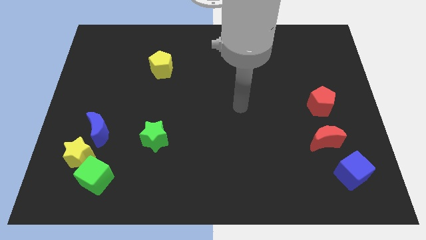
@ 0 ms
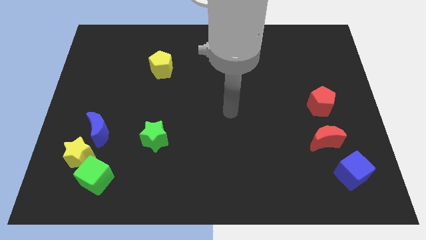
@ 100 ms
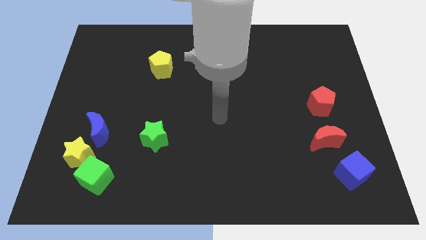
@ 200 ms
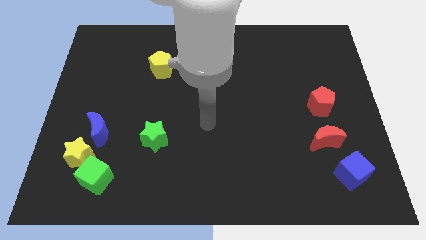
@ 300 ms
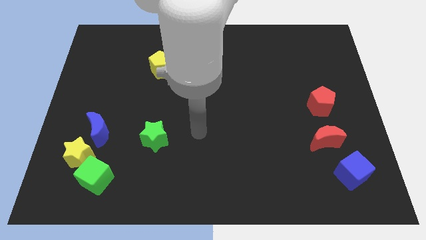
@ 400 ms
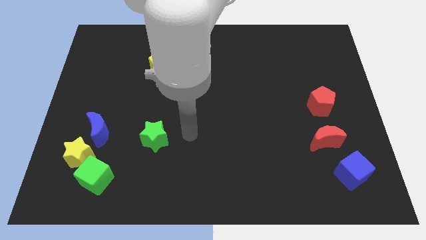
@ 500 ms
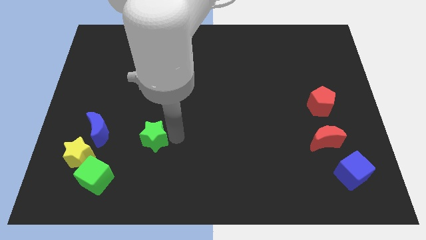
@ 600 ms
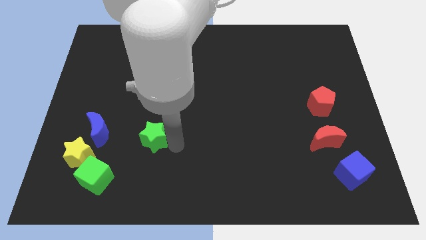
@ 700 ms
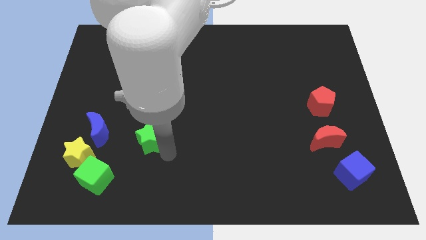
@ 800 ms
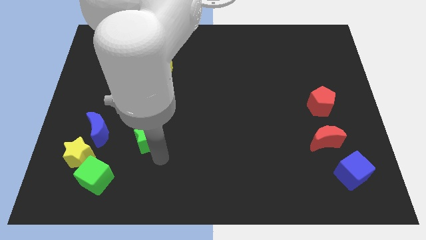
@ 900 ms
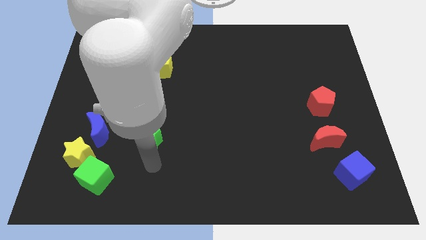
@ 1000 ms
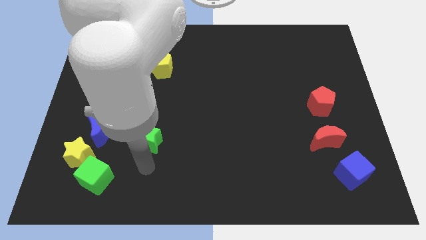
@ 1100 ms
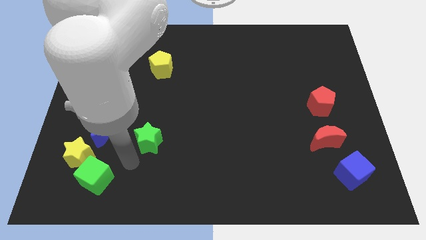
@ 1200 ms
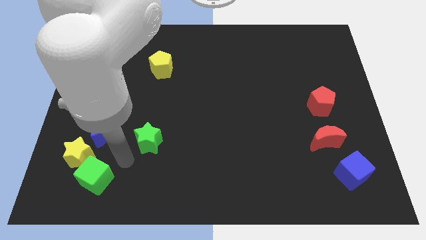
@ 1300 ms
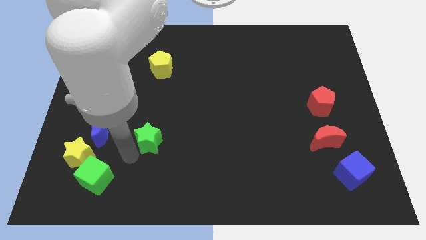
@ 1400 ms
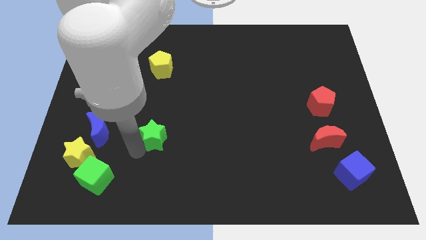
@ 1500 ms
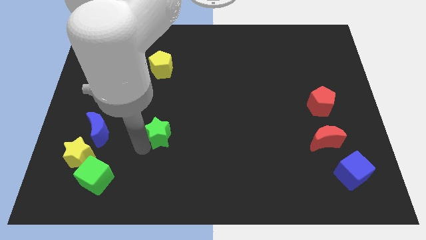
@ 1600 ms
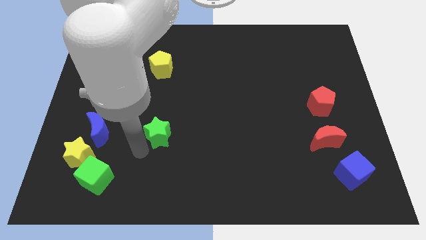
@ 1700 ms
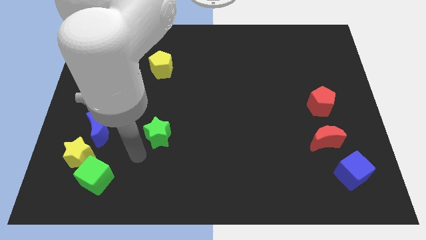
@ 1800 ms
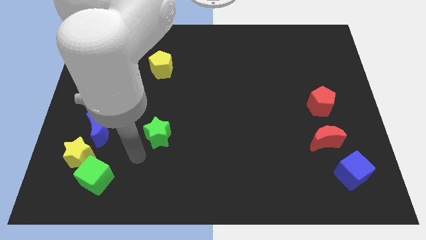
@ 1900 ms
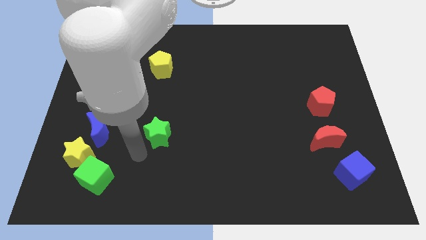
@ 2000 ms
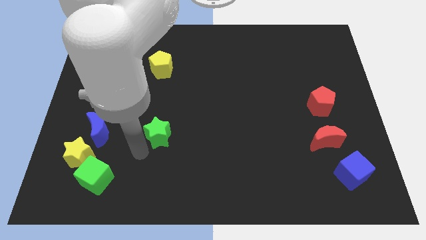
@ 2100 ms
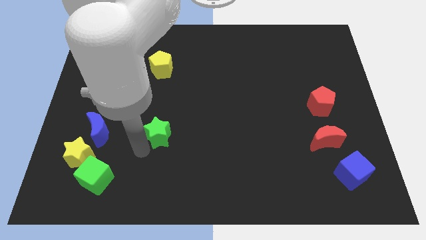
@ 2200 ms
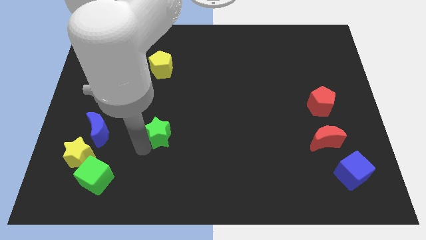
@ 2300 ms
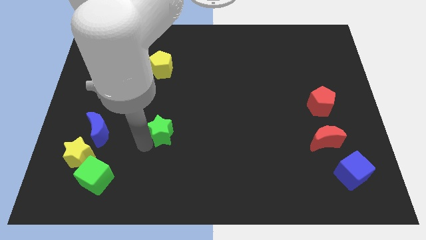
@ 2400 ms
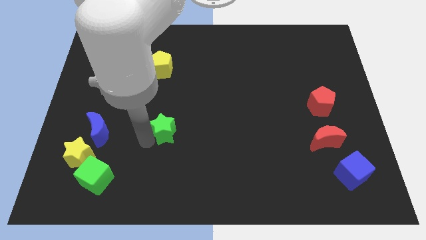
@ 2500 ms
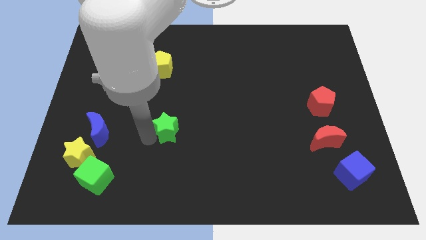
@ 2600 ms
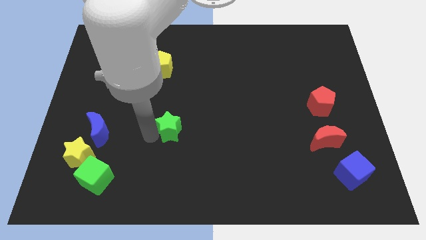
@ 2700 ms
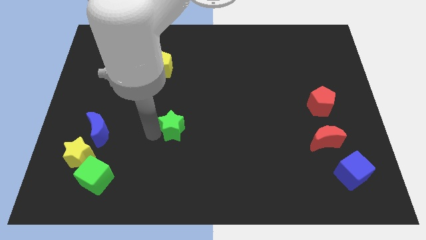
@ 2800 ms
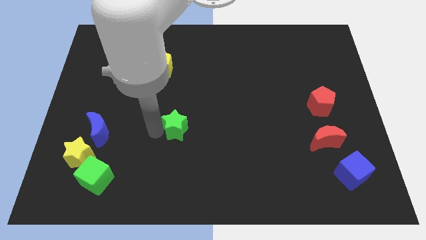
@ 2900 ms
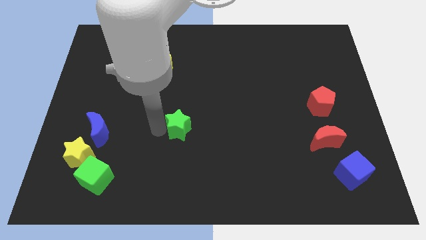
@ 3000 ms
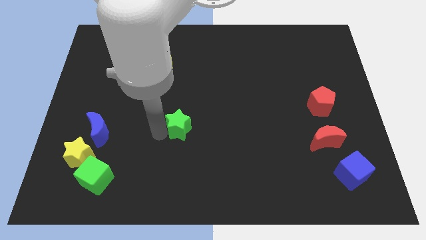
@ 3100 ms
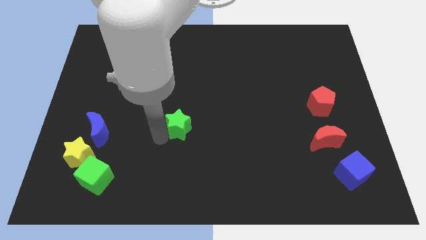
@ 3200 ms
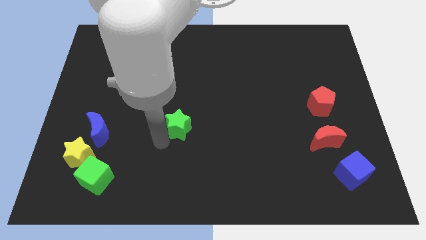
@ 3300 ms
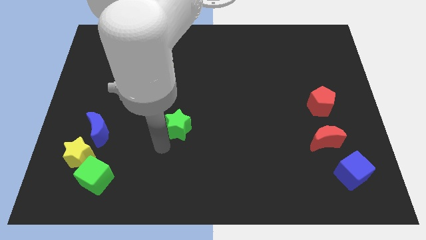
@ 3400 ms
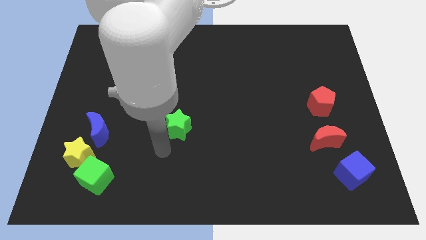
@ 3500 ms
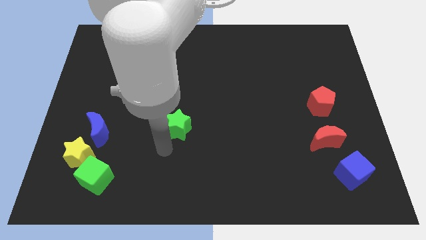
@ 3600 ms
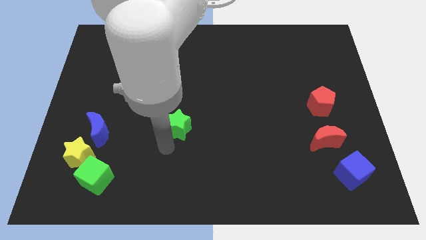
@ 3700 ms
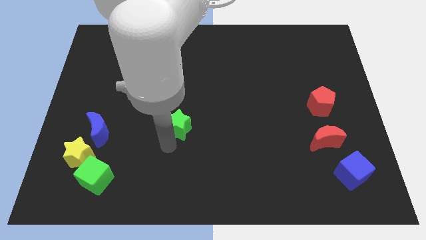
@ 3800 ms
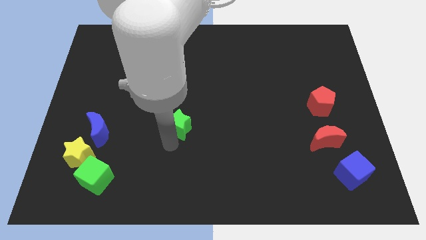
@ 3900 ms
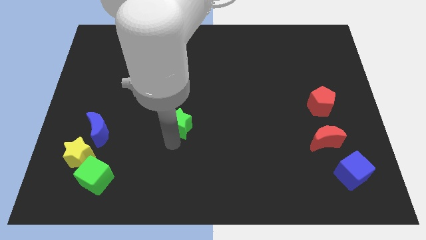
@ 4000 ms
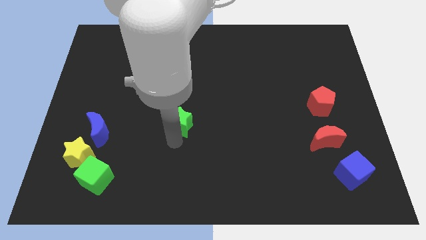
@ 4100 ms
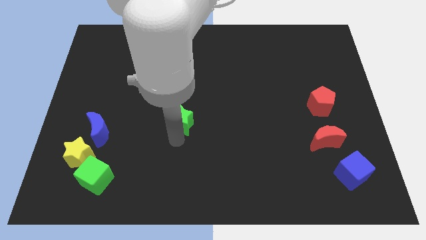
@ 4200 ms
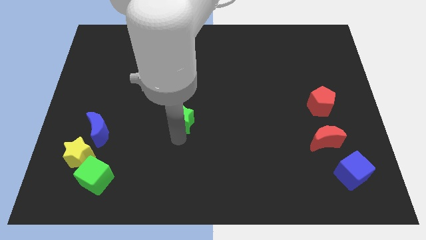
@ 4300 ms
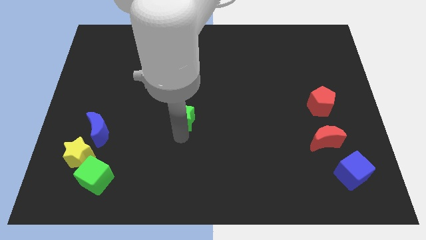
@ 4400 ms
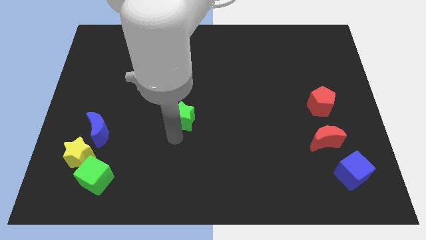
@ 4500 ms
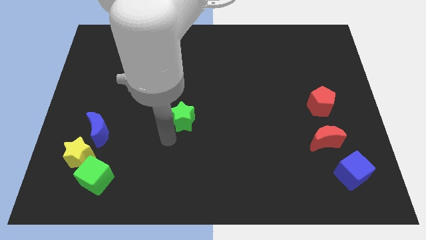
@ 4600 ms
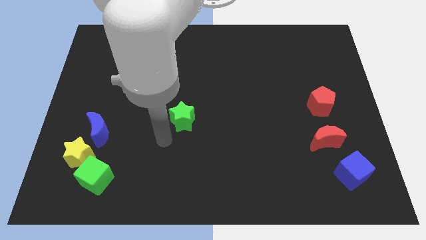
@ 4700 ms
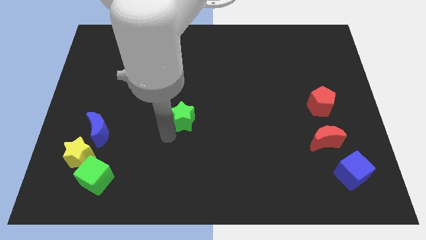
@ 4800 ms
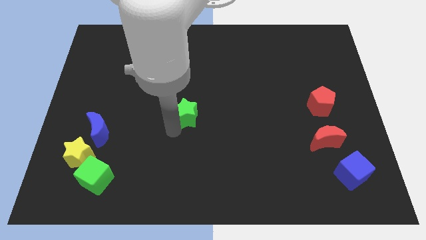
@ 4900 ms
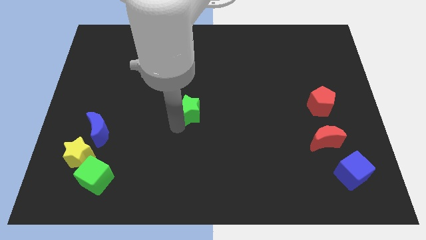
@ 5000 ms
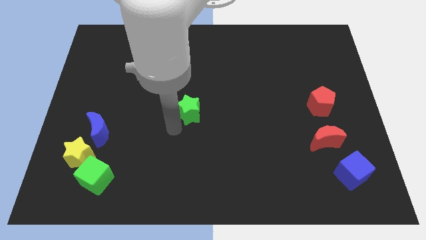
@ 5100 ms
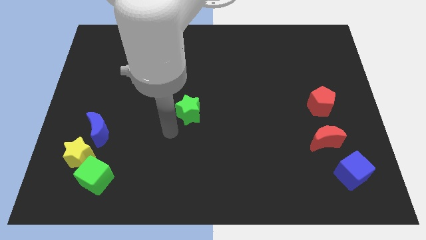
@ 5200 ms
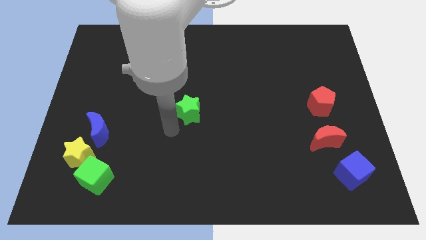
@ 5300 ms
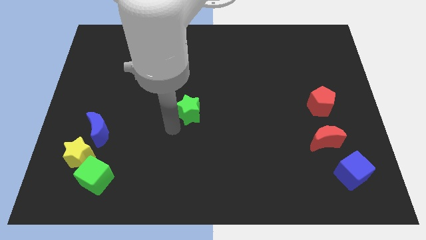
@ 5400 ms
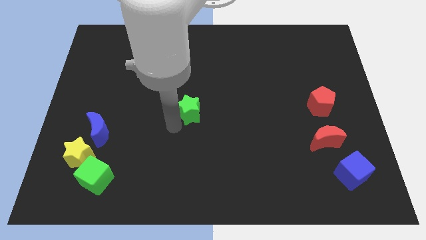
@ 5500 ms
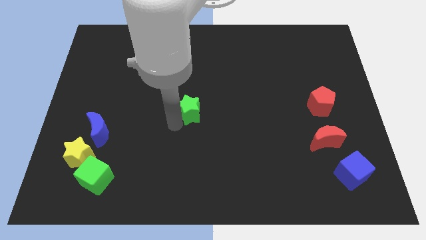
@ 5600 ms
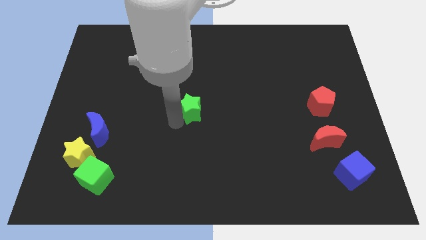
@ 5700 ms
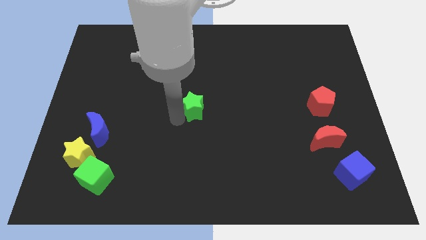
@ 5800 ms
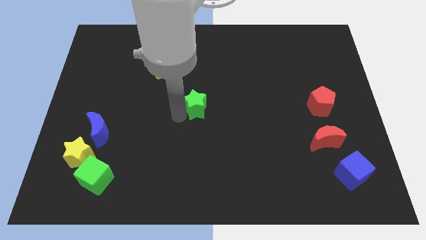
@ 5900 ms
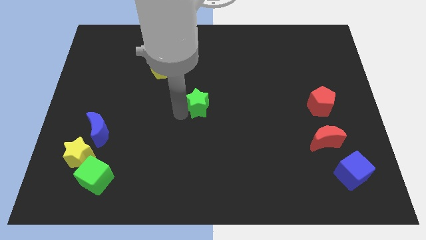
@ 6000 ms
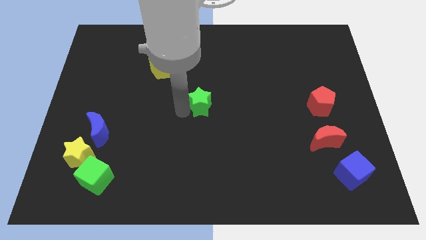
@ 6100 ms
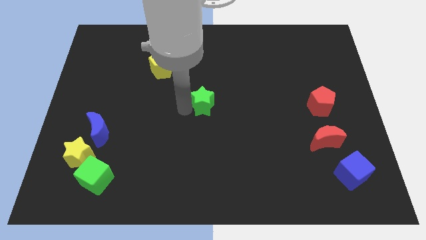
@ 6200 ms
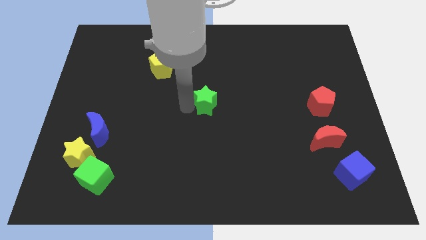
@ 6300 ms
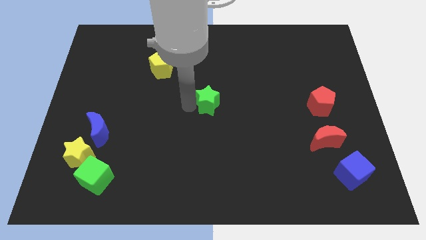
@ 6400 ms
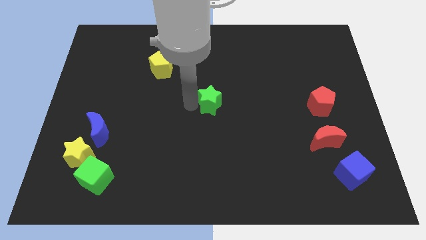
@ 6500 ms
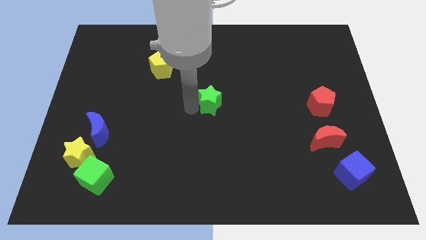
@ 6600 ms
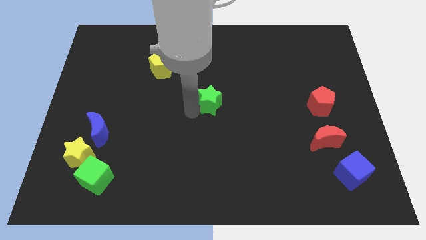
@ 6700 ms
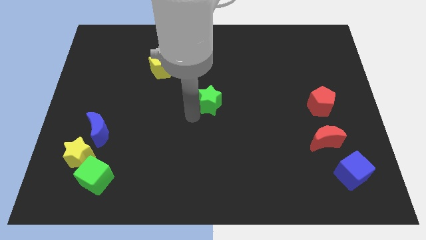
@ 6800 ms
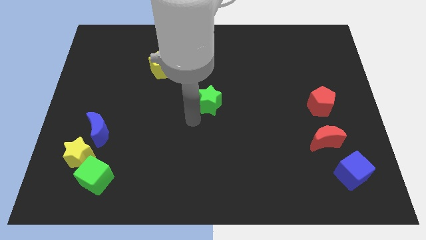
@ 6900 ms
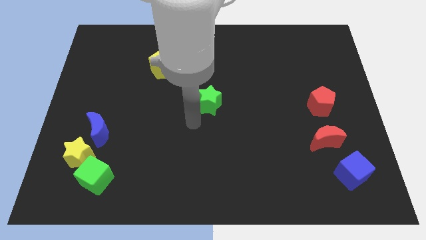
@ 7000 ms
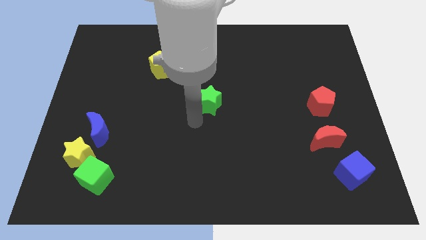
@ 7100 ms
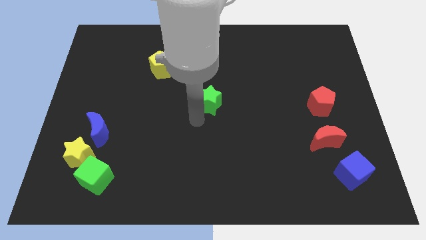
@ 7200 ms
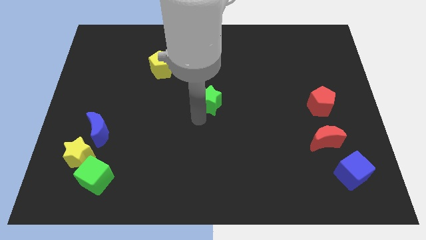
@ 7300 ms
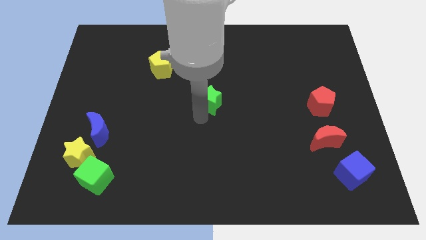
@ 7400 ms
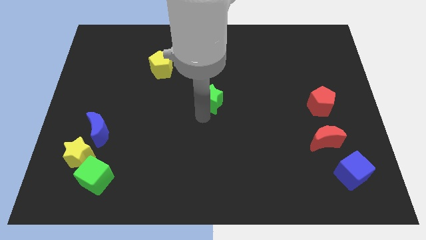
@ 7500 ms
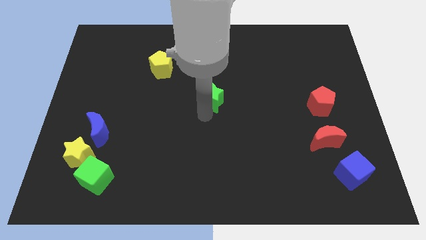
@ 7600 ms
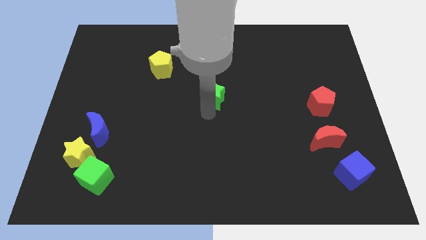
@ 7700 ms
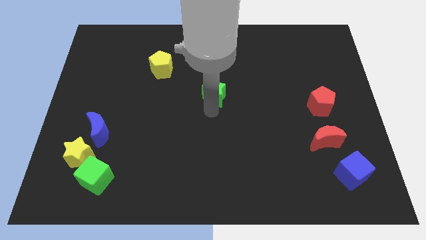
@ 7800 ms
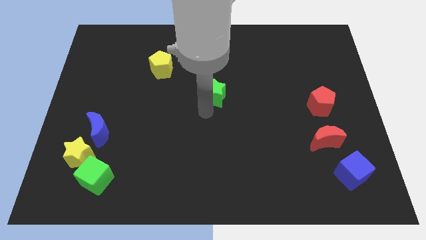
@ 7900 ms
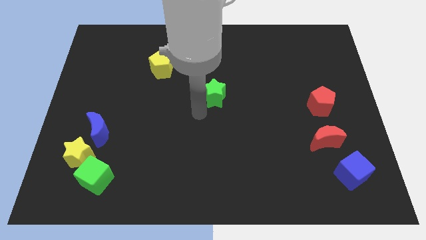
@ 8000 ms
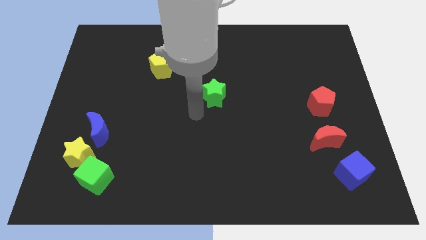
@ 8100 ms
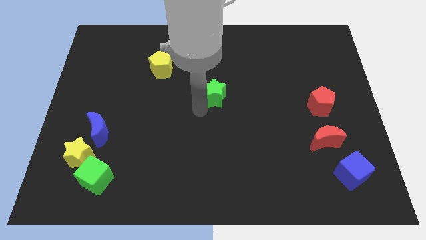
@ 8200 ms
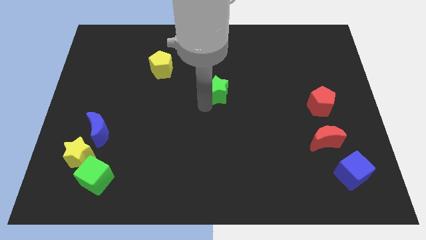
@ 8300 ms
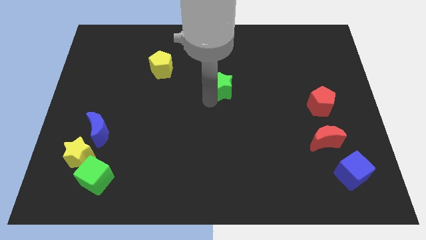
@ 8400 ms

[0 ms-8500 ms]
push the green star diagonally upwards and to the right
